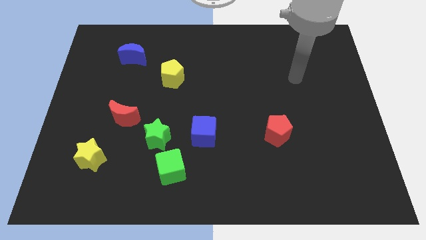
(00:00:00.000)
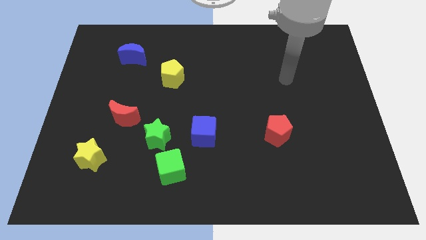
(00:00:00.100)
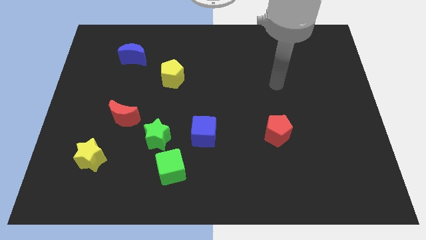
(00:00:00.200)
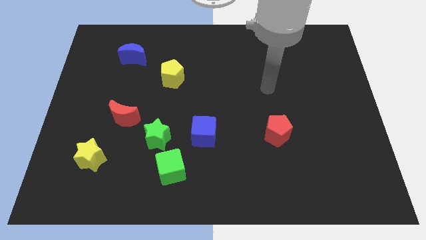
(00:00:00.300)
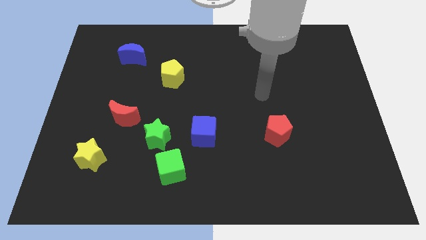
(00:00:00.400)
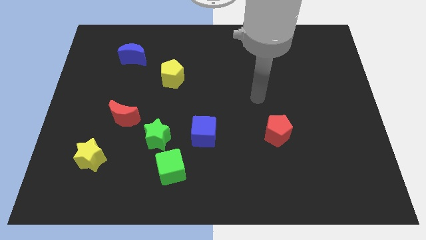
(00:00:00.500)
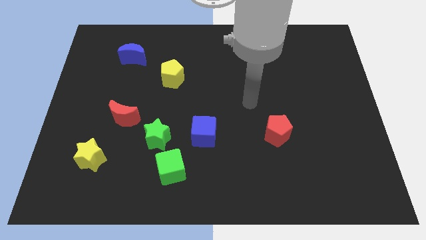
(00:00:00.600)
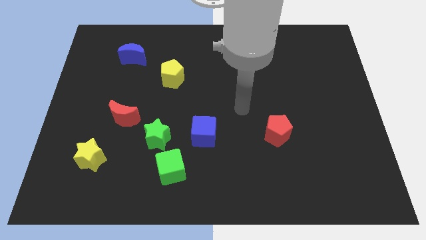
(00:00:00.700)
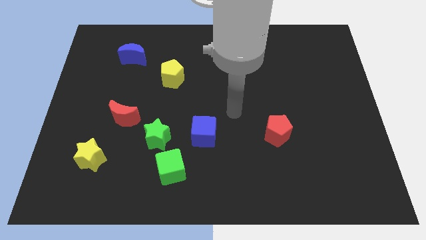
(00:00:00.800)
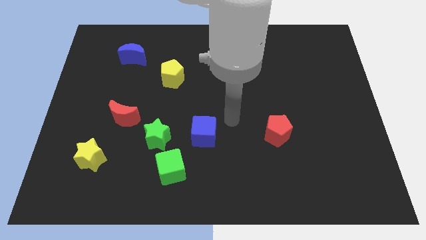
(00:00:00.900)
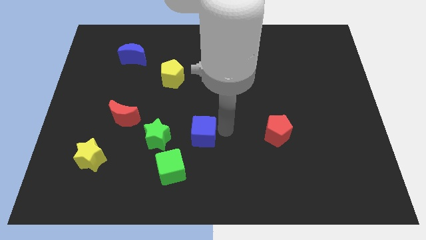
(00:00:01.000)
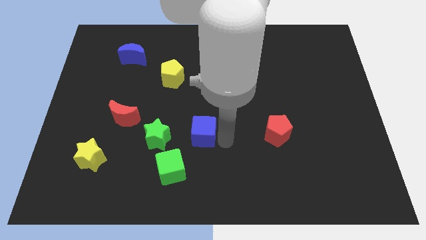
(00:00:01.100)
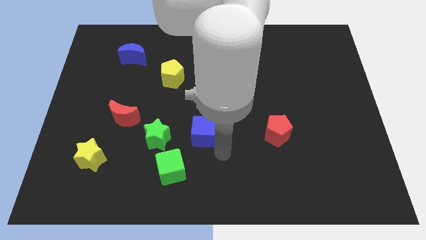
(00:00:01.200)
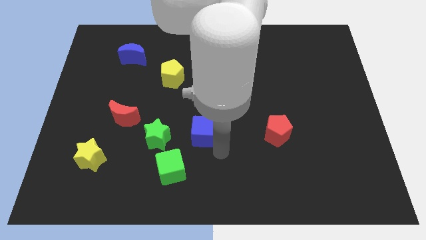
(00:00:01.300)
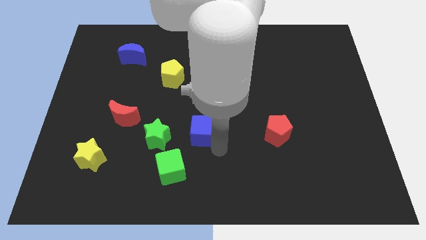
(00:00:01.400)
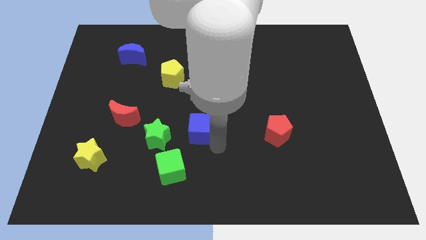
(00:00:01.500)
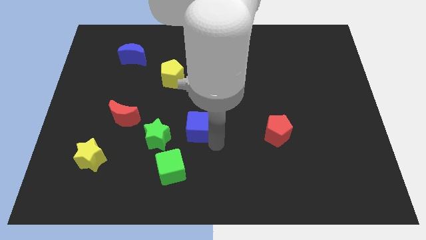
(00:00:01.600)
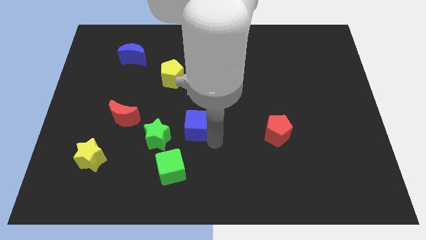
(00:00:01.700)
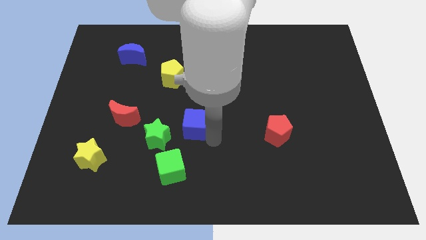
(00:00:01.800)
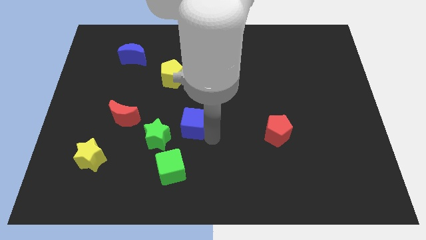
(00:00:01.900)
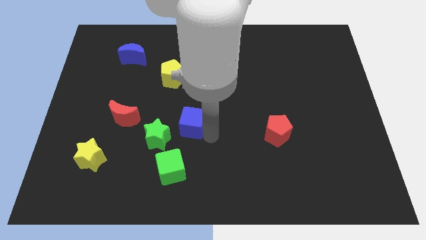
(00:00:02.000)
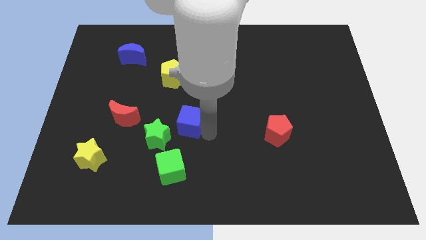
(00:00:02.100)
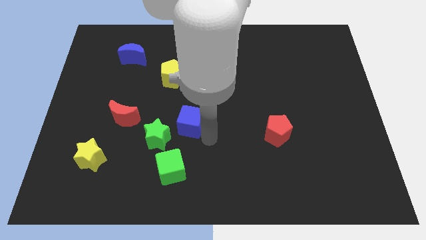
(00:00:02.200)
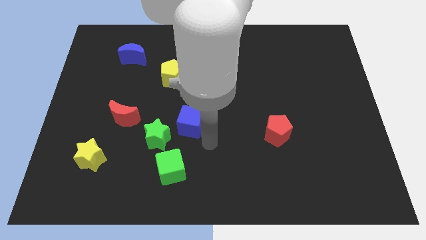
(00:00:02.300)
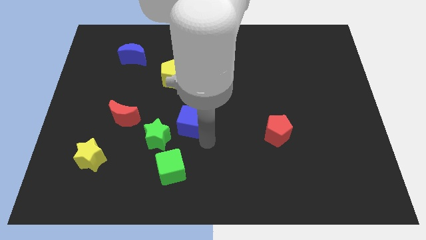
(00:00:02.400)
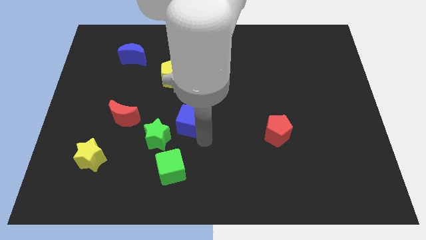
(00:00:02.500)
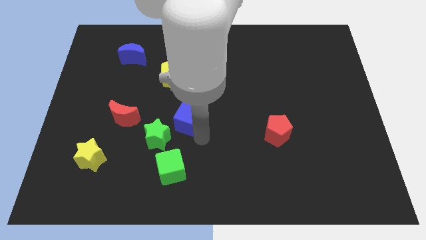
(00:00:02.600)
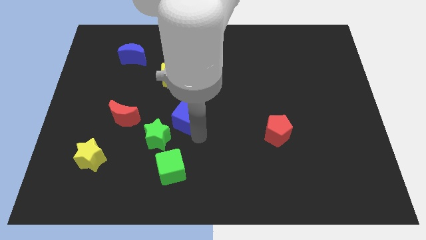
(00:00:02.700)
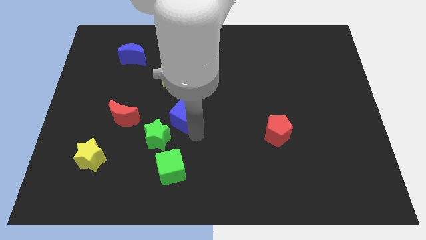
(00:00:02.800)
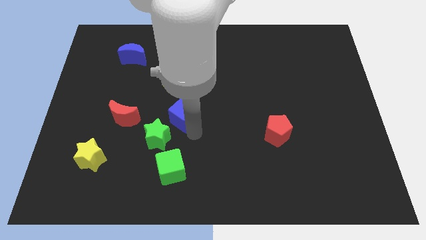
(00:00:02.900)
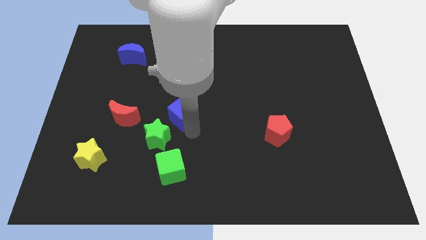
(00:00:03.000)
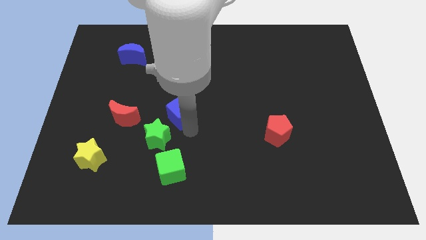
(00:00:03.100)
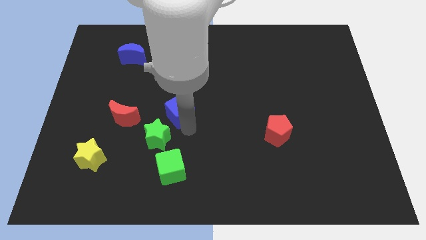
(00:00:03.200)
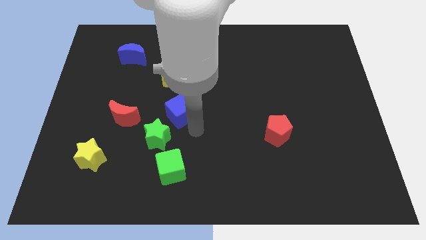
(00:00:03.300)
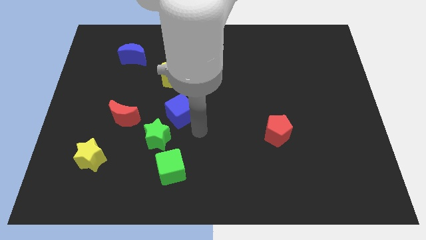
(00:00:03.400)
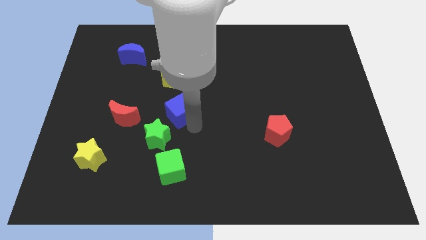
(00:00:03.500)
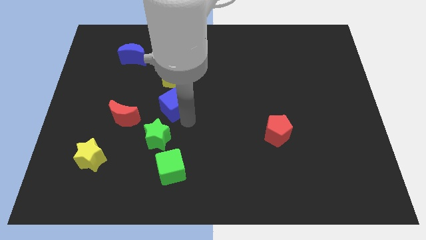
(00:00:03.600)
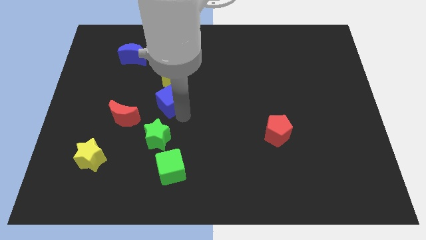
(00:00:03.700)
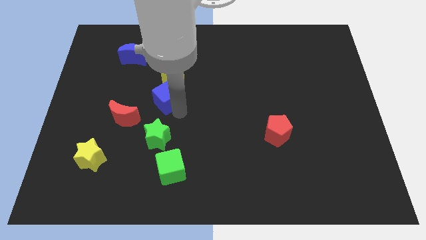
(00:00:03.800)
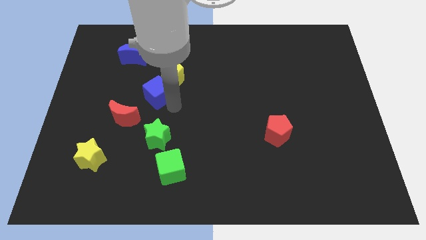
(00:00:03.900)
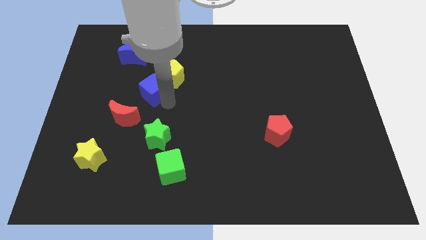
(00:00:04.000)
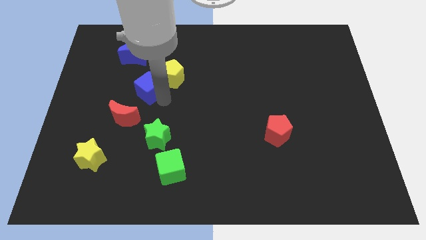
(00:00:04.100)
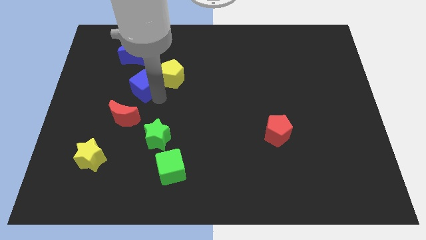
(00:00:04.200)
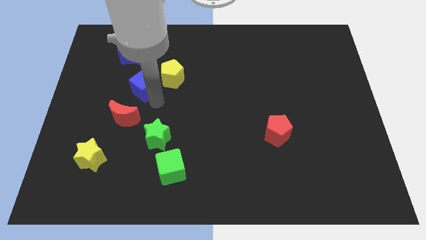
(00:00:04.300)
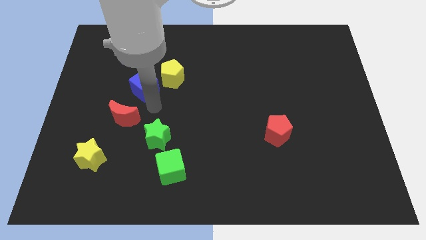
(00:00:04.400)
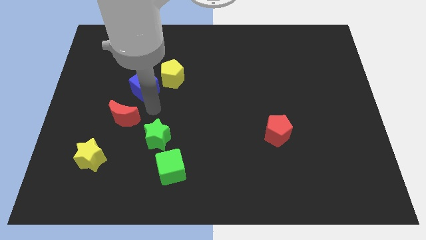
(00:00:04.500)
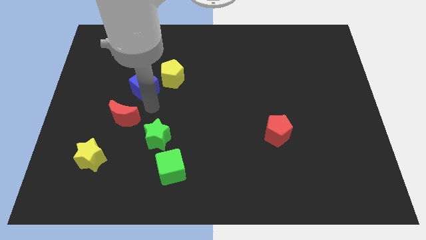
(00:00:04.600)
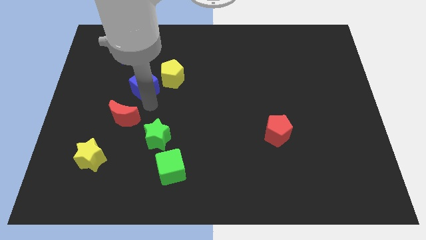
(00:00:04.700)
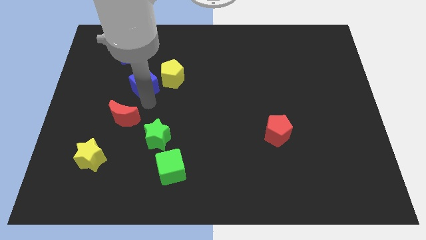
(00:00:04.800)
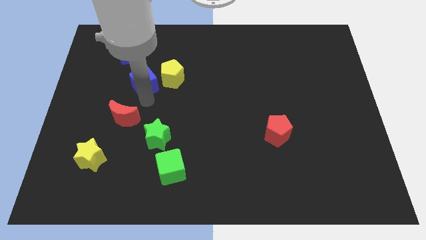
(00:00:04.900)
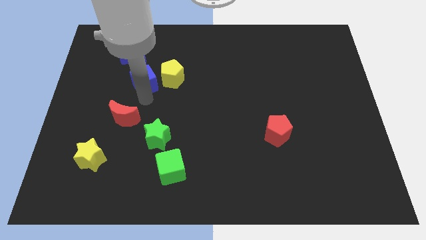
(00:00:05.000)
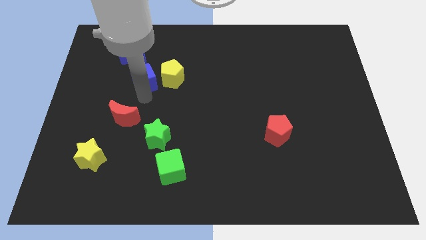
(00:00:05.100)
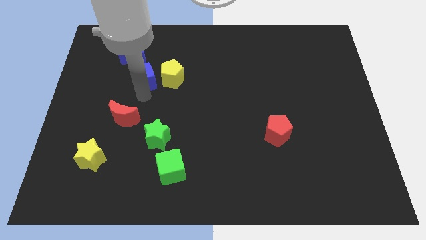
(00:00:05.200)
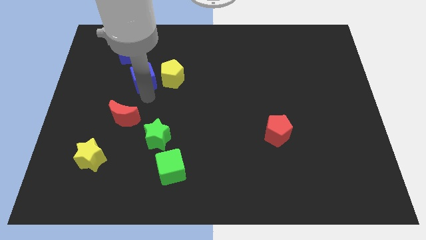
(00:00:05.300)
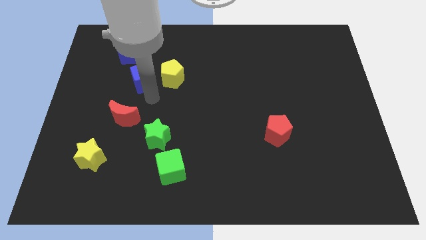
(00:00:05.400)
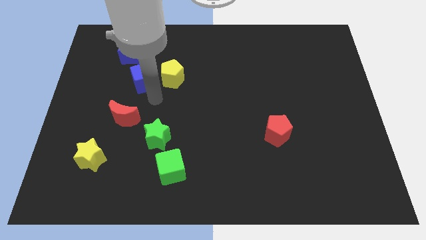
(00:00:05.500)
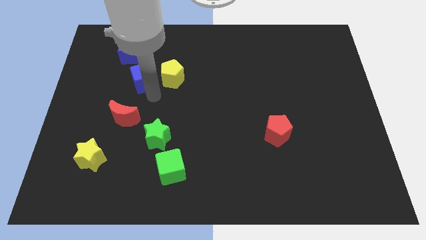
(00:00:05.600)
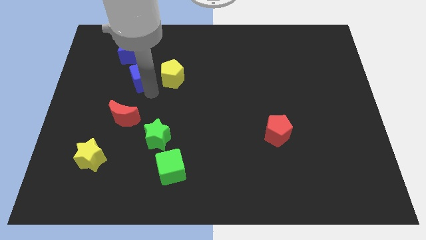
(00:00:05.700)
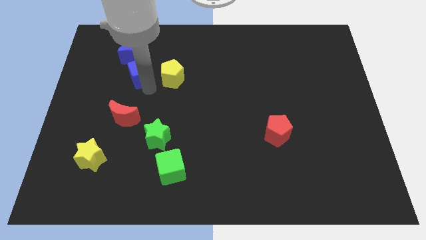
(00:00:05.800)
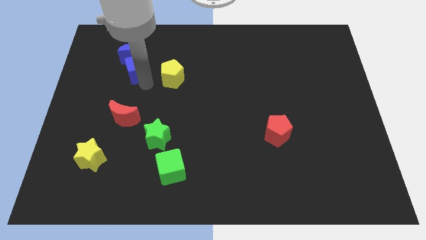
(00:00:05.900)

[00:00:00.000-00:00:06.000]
slide the blue cube to the blue moon

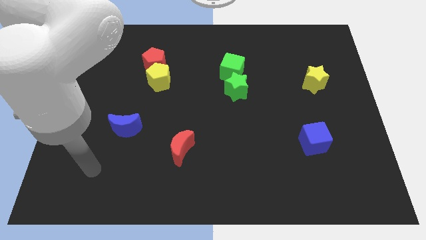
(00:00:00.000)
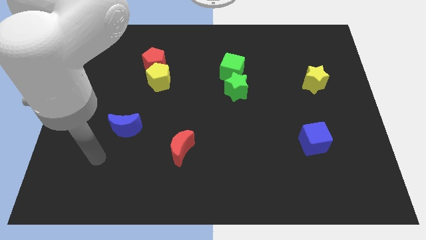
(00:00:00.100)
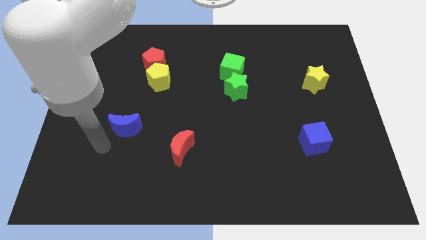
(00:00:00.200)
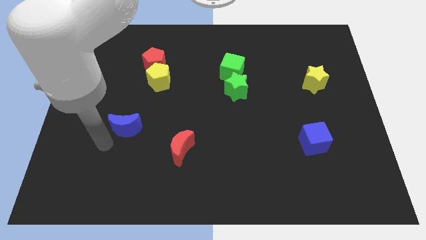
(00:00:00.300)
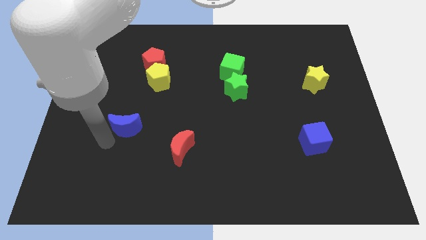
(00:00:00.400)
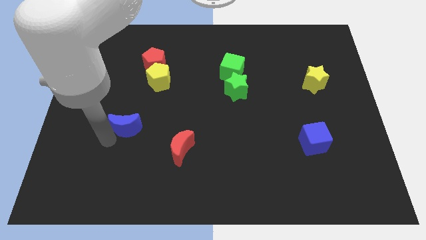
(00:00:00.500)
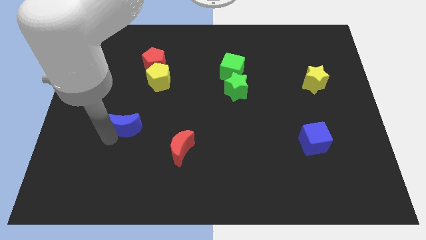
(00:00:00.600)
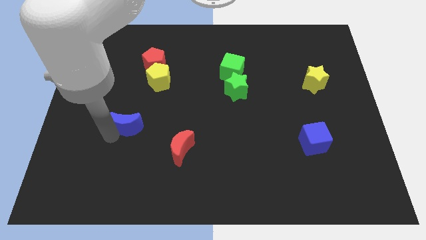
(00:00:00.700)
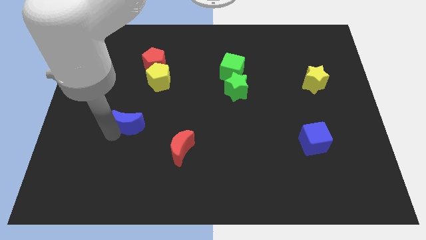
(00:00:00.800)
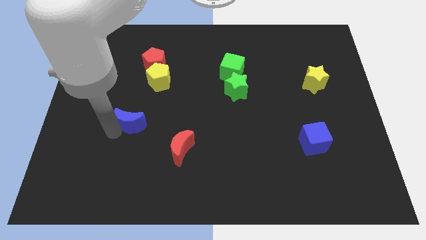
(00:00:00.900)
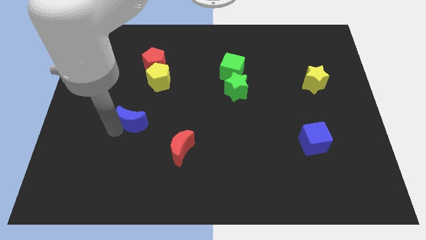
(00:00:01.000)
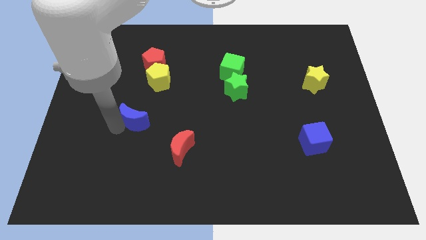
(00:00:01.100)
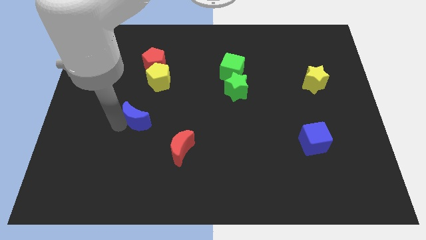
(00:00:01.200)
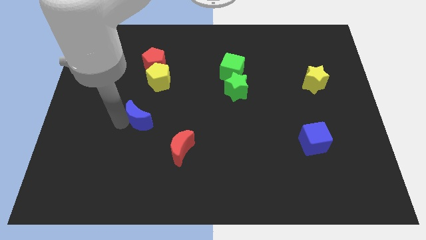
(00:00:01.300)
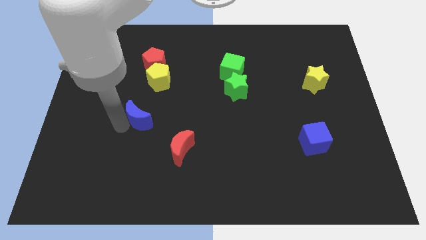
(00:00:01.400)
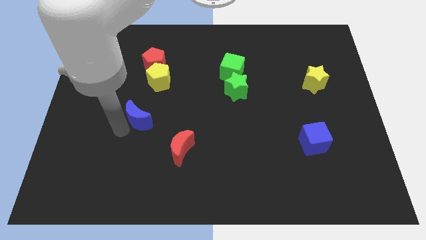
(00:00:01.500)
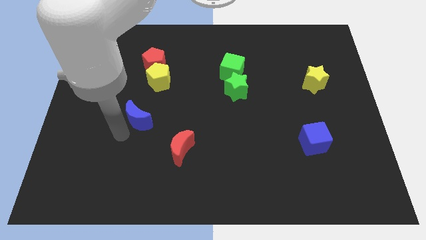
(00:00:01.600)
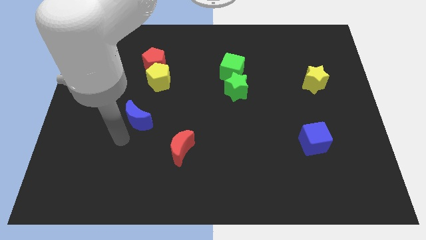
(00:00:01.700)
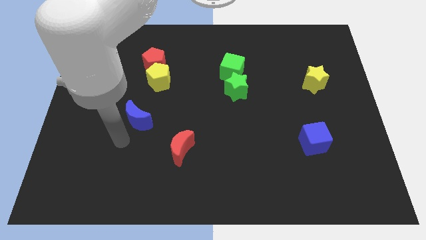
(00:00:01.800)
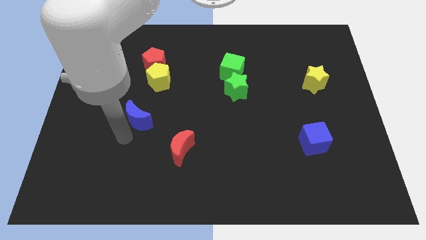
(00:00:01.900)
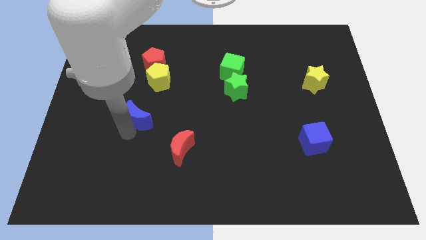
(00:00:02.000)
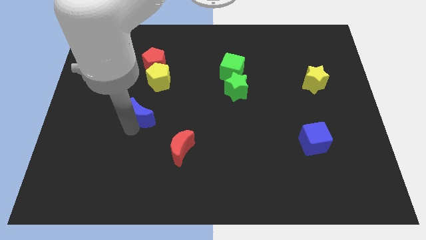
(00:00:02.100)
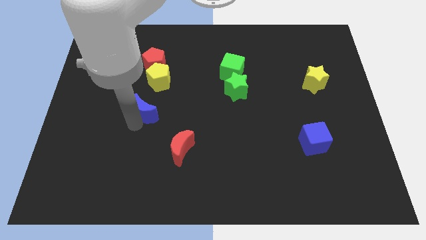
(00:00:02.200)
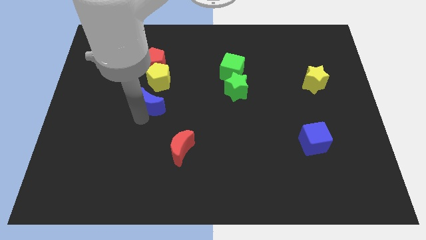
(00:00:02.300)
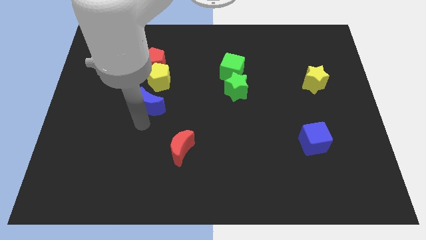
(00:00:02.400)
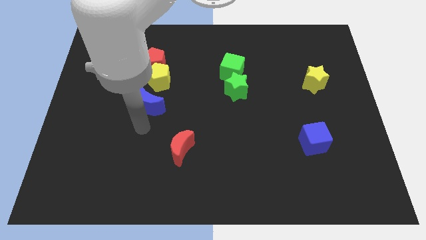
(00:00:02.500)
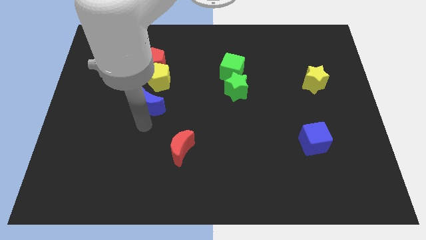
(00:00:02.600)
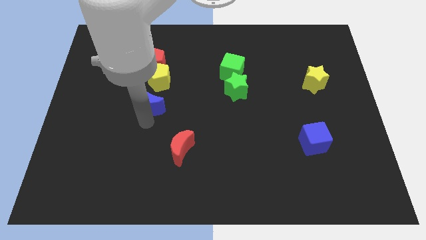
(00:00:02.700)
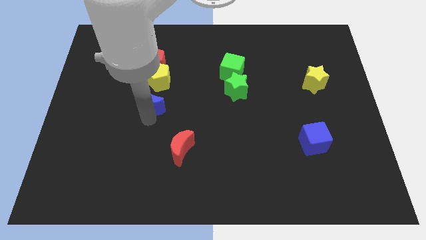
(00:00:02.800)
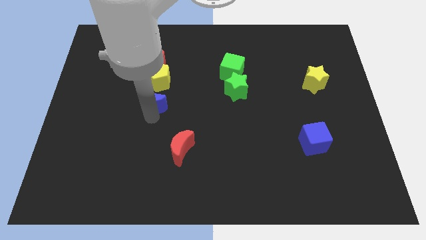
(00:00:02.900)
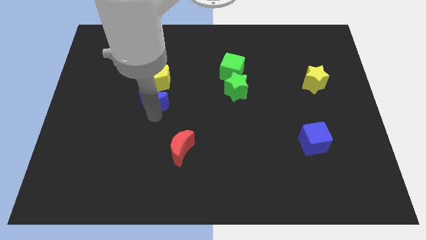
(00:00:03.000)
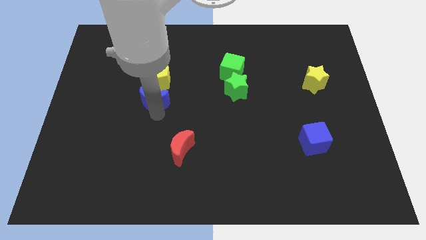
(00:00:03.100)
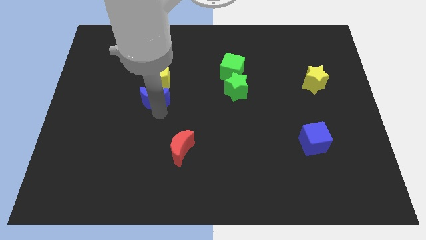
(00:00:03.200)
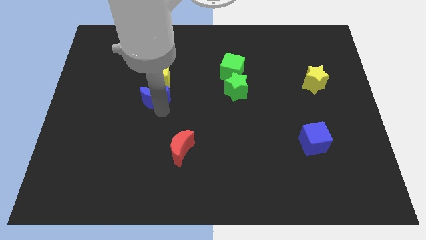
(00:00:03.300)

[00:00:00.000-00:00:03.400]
push the blue moon next to the yellow pentagon
